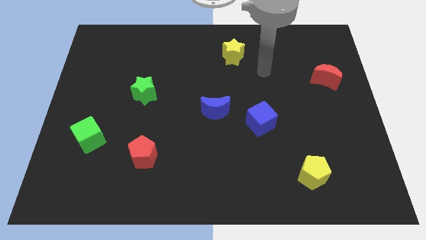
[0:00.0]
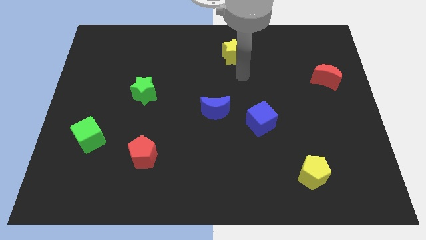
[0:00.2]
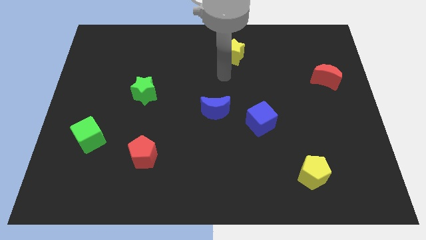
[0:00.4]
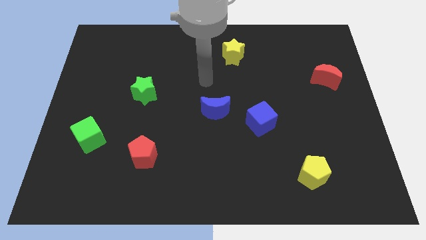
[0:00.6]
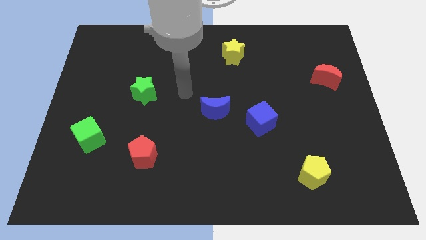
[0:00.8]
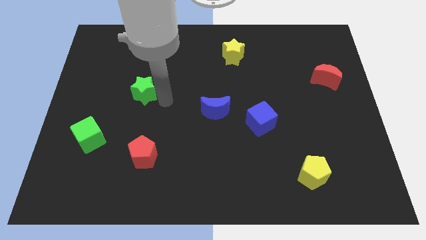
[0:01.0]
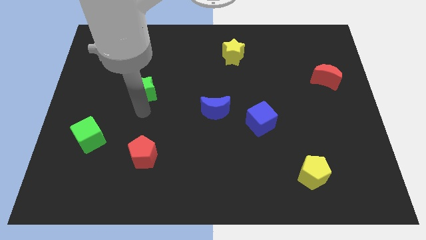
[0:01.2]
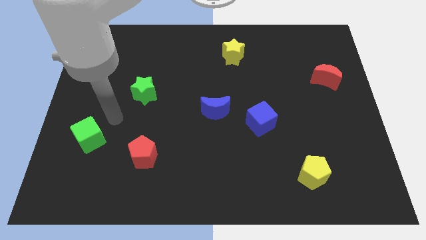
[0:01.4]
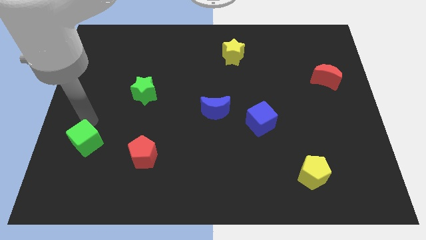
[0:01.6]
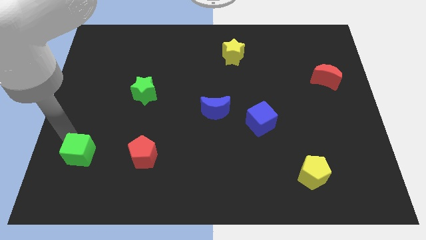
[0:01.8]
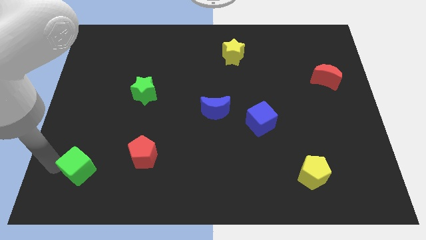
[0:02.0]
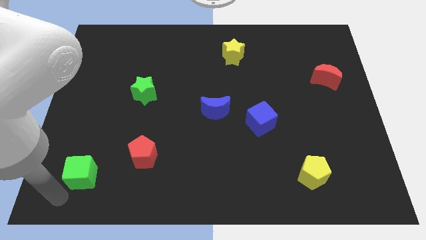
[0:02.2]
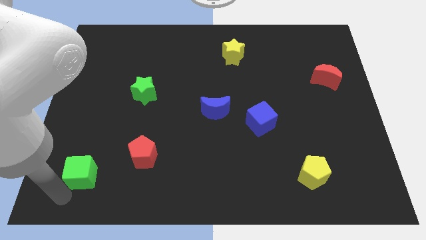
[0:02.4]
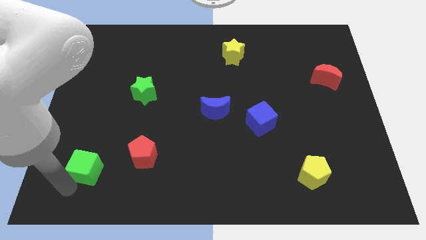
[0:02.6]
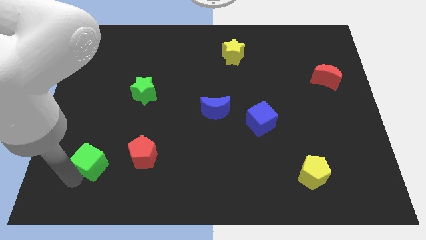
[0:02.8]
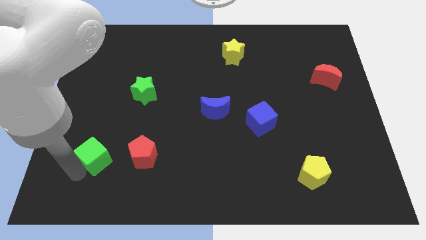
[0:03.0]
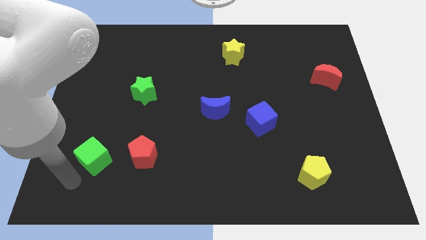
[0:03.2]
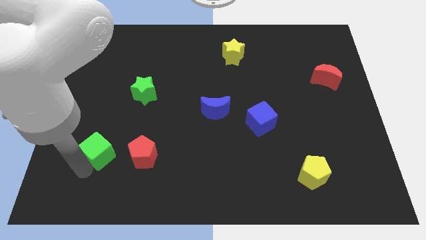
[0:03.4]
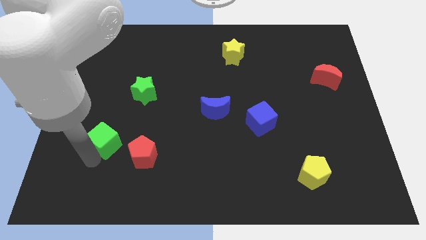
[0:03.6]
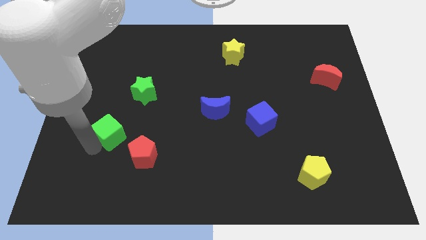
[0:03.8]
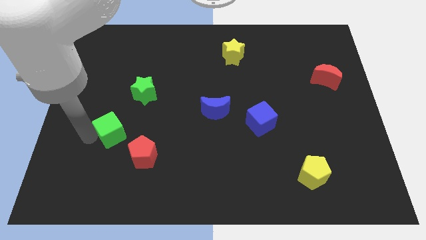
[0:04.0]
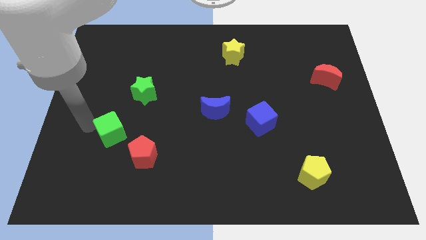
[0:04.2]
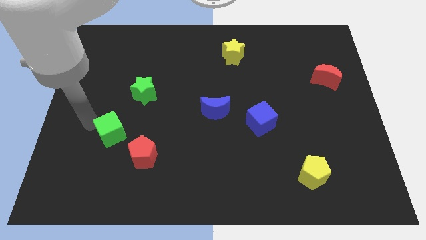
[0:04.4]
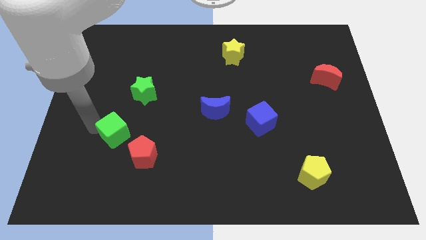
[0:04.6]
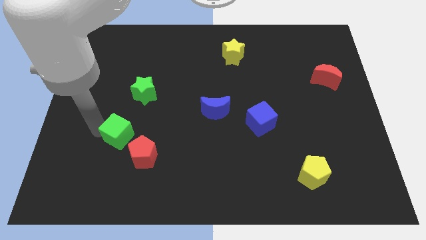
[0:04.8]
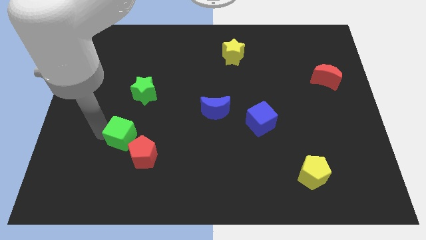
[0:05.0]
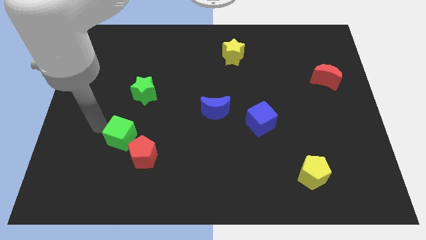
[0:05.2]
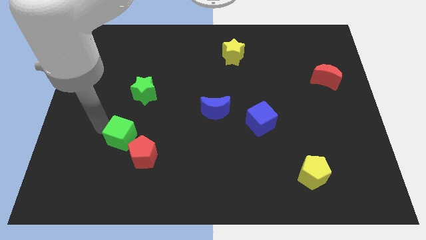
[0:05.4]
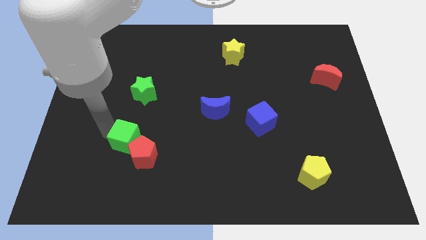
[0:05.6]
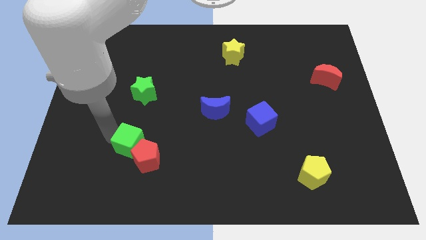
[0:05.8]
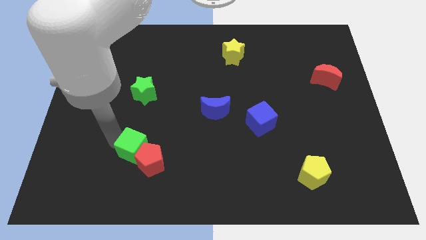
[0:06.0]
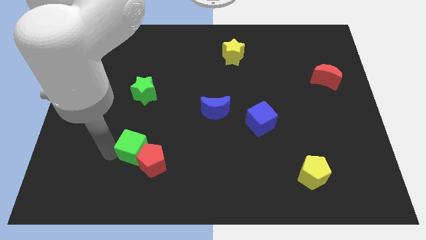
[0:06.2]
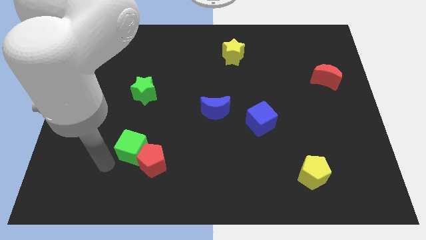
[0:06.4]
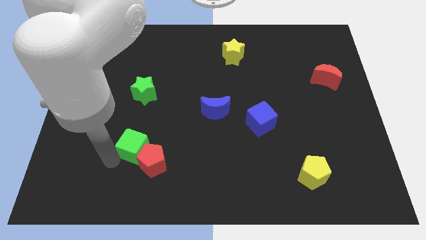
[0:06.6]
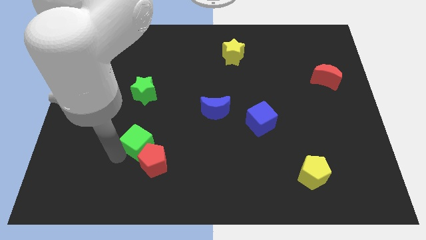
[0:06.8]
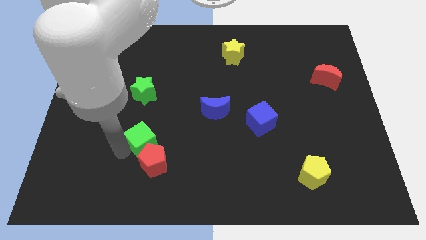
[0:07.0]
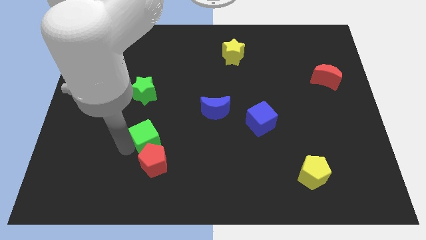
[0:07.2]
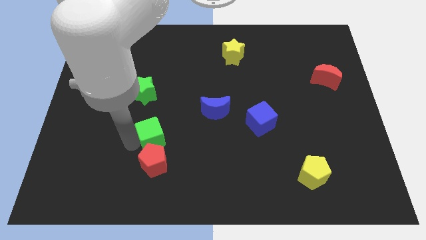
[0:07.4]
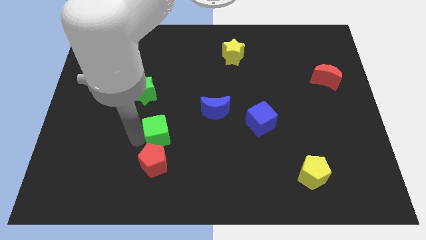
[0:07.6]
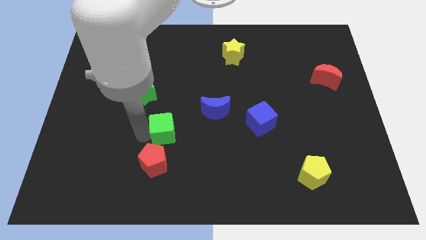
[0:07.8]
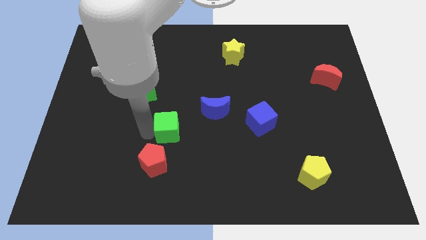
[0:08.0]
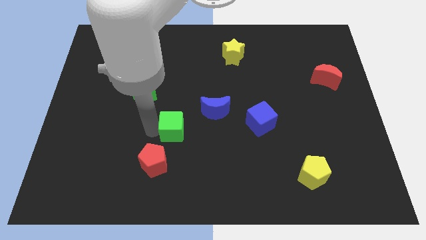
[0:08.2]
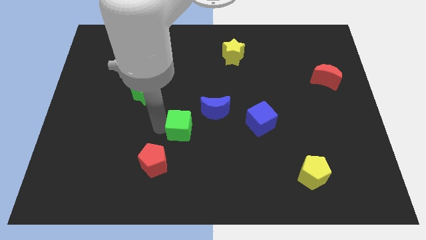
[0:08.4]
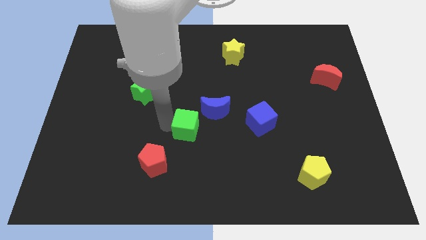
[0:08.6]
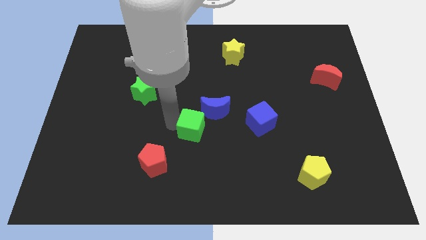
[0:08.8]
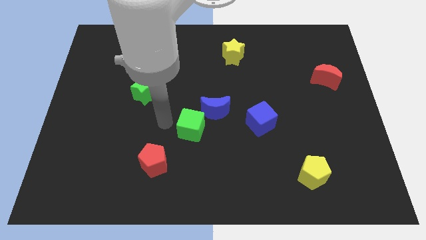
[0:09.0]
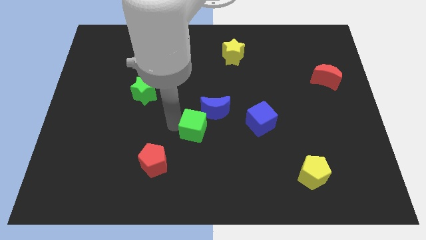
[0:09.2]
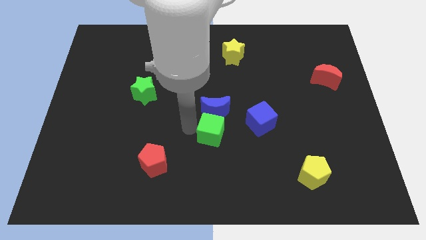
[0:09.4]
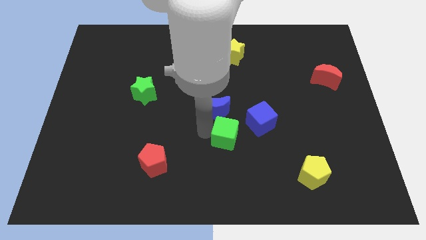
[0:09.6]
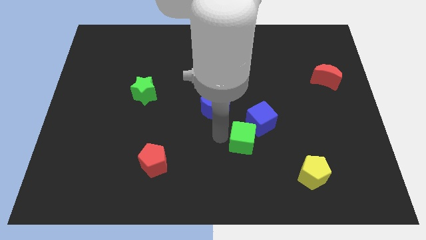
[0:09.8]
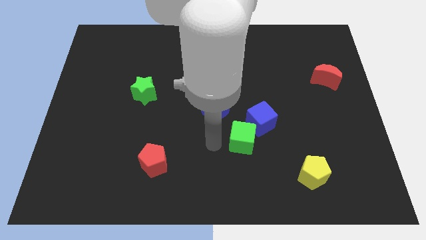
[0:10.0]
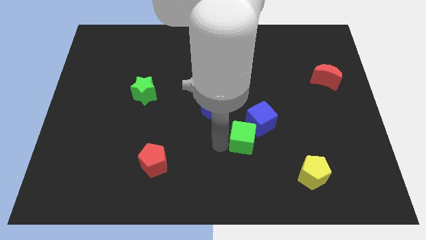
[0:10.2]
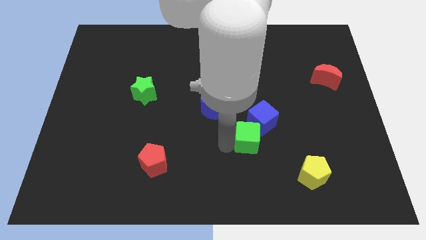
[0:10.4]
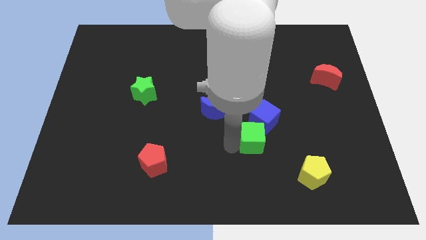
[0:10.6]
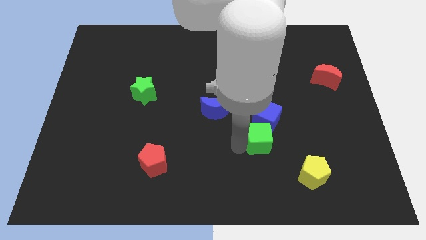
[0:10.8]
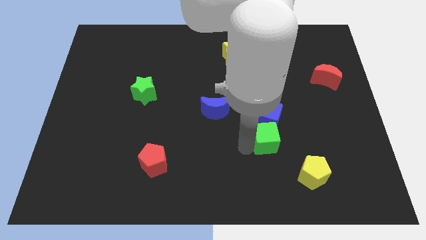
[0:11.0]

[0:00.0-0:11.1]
slide the green cube to the bottom right side of the blue cube
